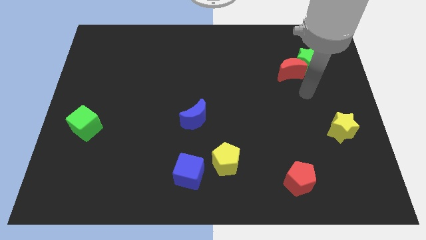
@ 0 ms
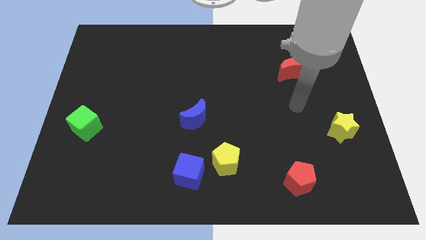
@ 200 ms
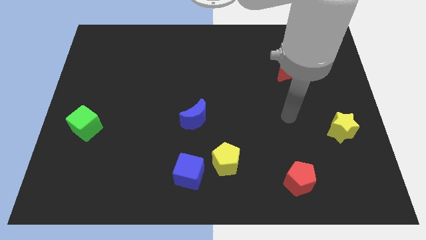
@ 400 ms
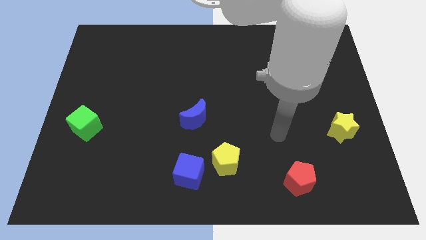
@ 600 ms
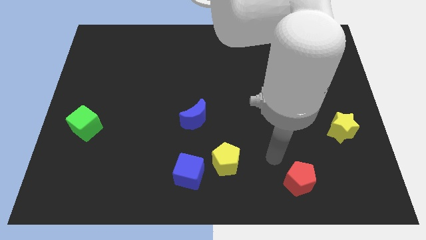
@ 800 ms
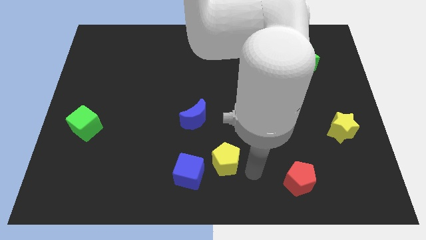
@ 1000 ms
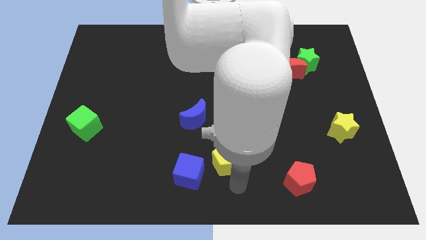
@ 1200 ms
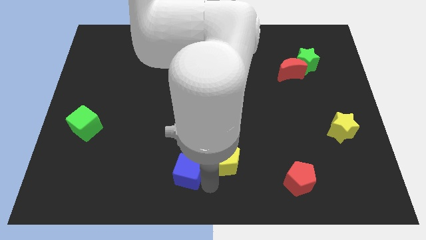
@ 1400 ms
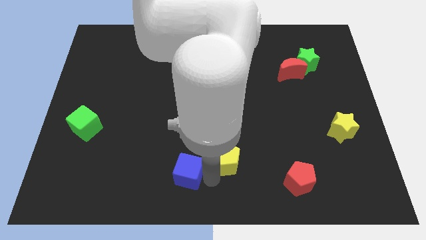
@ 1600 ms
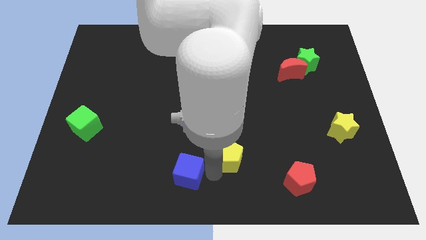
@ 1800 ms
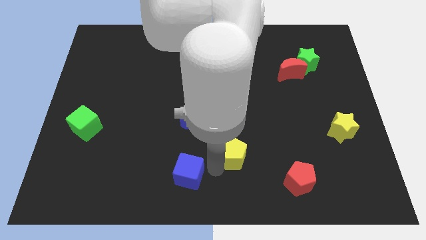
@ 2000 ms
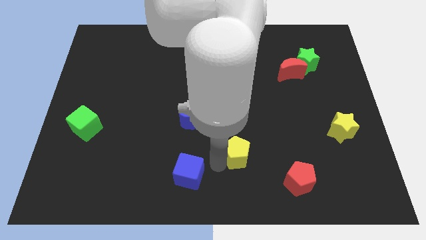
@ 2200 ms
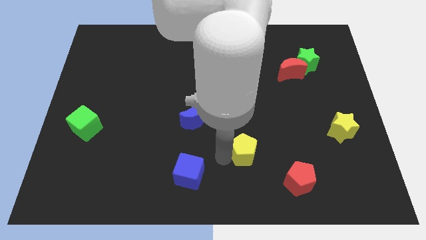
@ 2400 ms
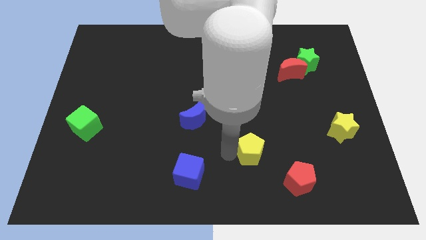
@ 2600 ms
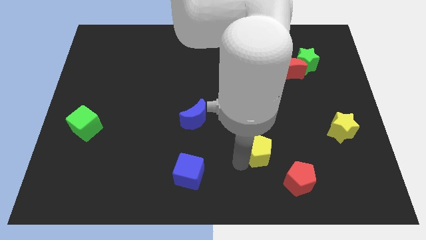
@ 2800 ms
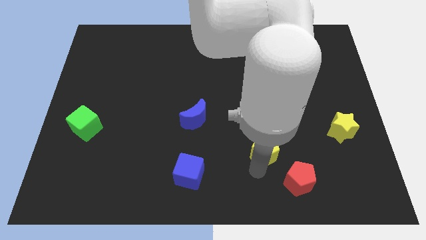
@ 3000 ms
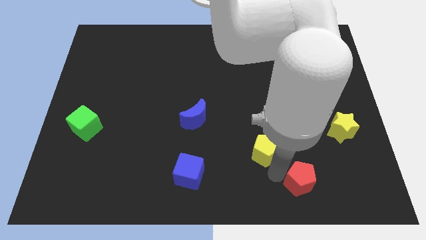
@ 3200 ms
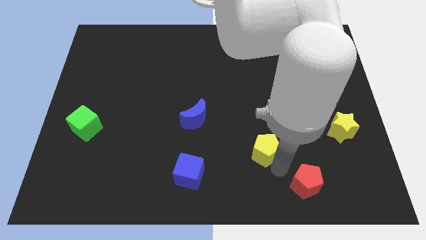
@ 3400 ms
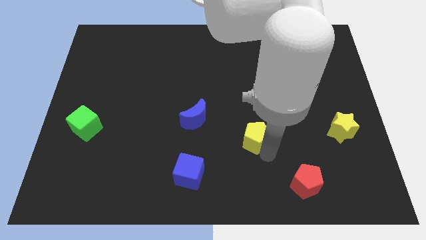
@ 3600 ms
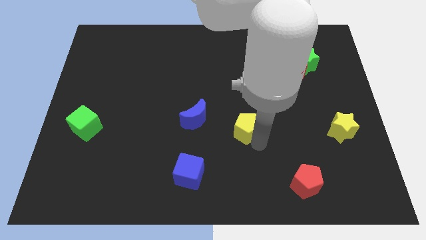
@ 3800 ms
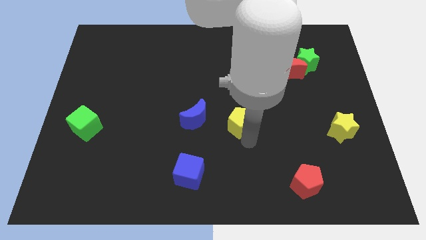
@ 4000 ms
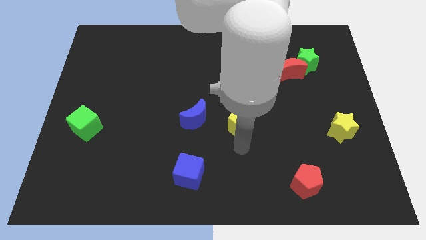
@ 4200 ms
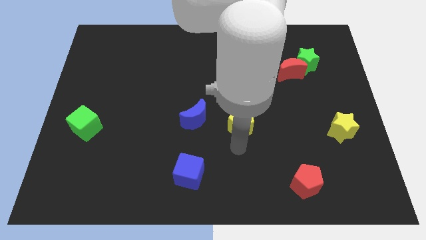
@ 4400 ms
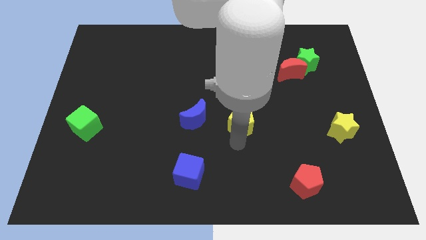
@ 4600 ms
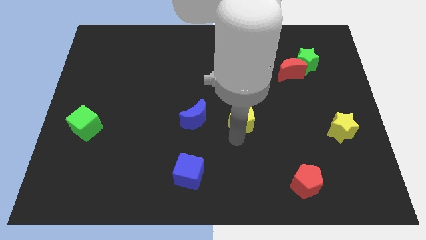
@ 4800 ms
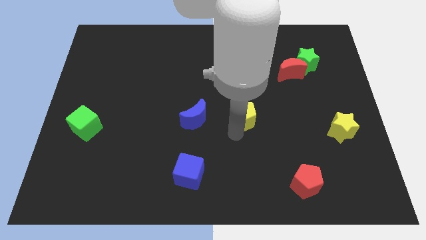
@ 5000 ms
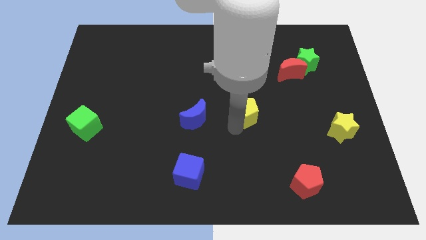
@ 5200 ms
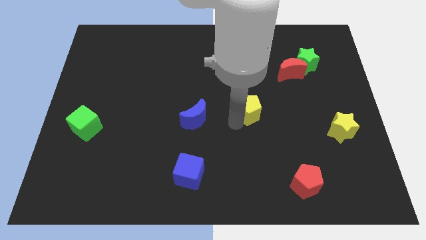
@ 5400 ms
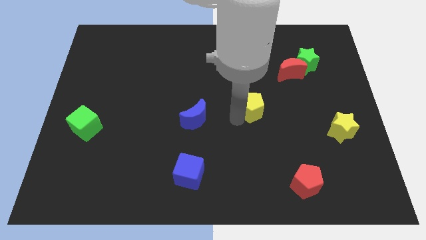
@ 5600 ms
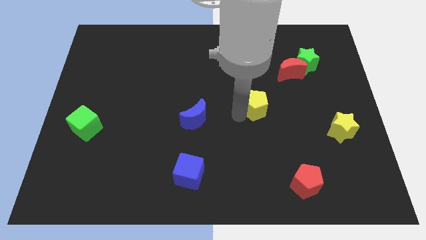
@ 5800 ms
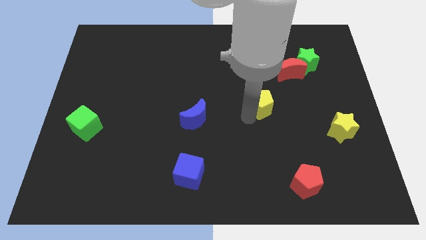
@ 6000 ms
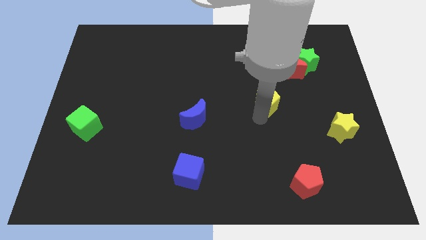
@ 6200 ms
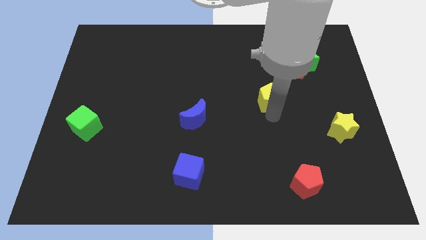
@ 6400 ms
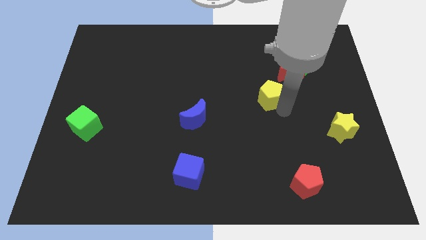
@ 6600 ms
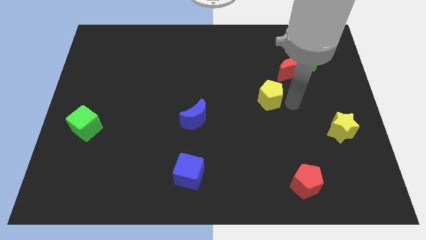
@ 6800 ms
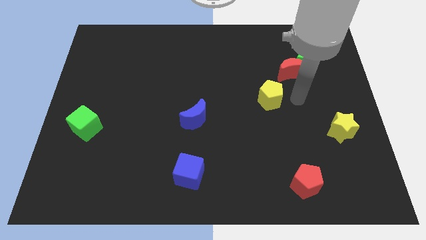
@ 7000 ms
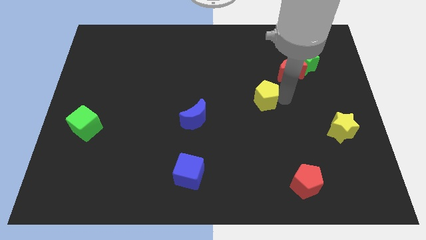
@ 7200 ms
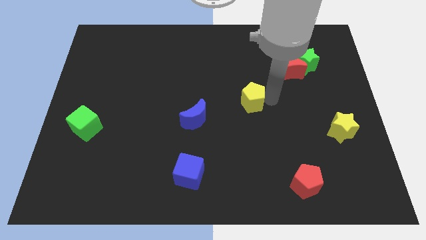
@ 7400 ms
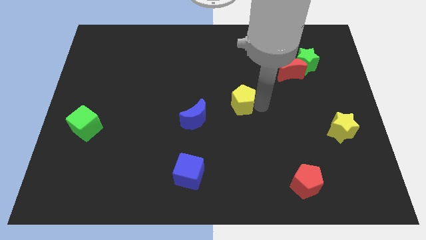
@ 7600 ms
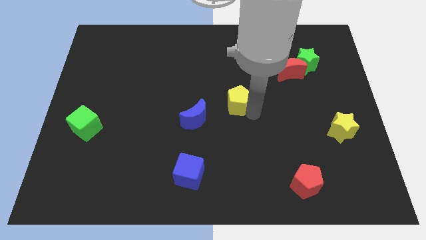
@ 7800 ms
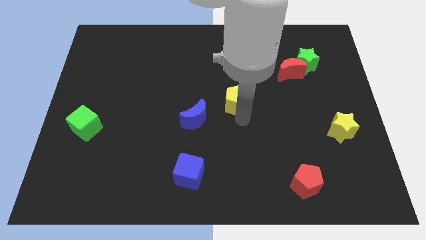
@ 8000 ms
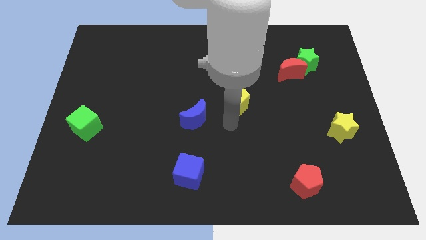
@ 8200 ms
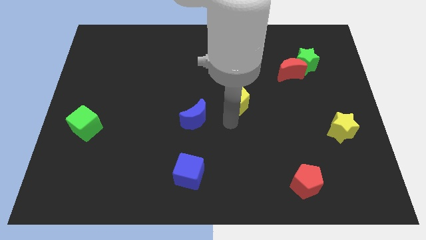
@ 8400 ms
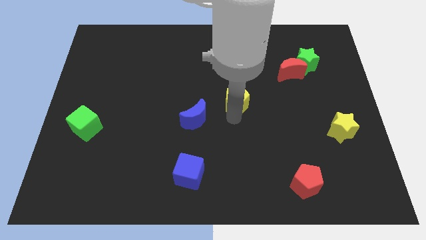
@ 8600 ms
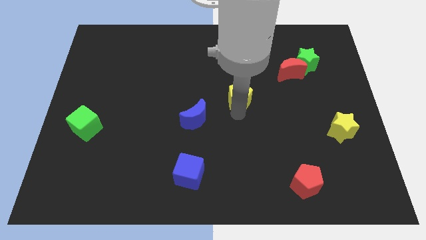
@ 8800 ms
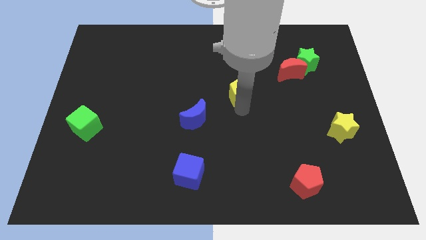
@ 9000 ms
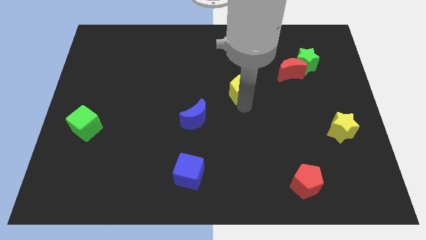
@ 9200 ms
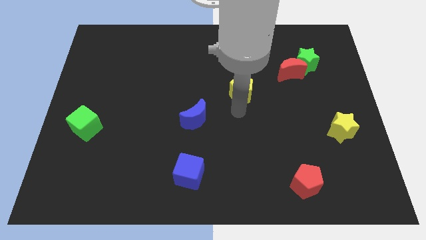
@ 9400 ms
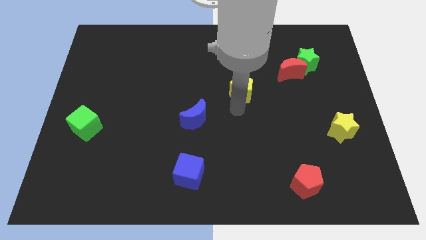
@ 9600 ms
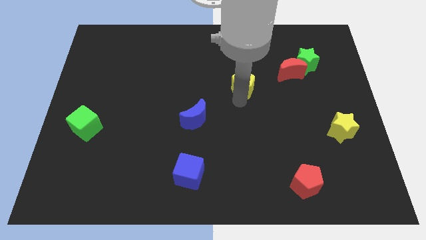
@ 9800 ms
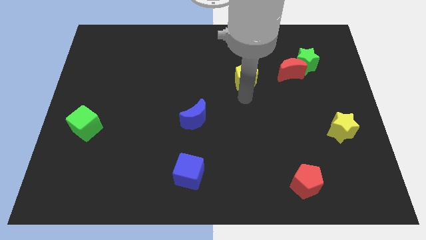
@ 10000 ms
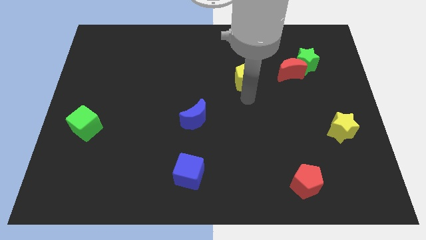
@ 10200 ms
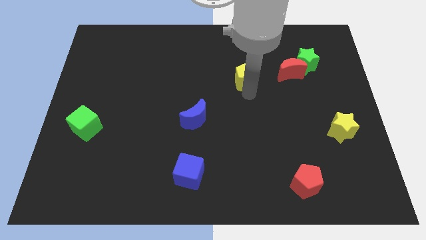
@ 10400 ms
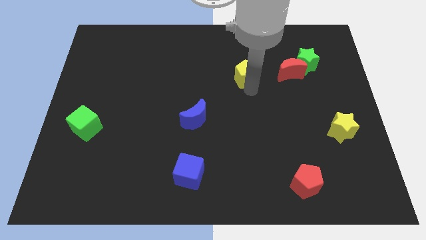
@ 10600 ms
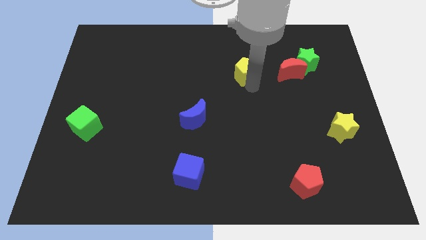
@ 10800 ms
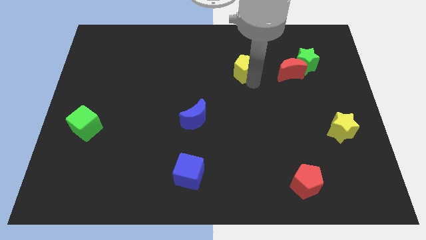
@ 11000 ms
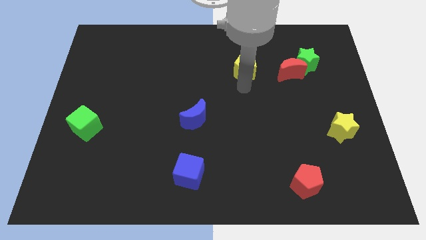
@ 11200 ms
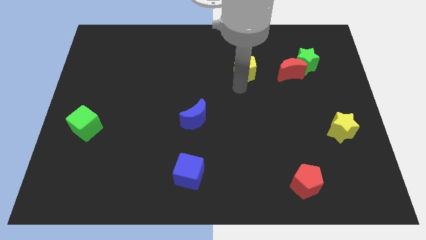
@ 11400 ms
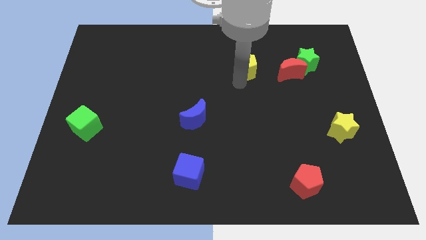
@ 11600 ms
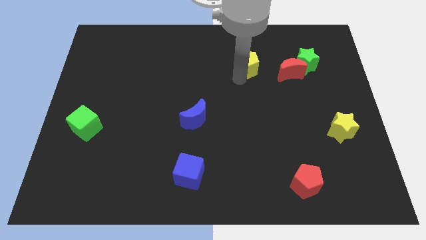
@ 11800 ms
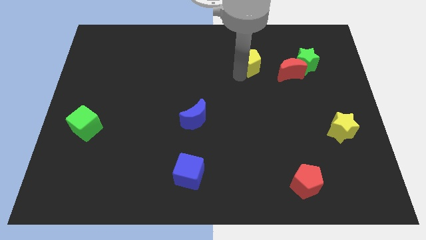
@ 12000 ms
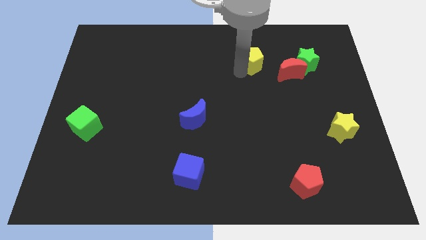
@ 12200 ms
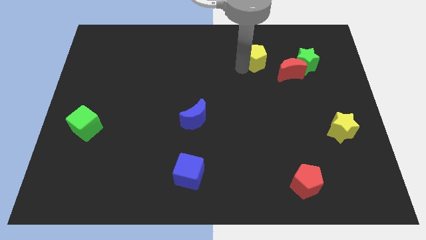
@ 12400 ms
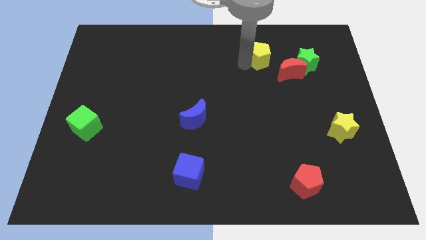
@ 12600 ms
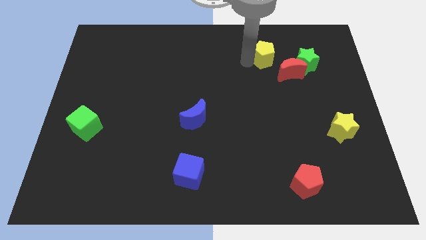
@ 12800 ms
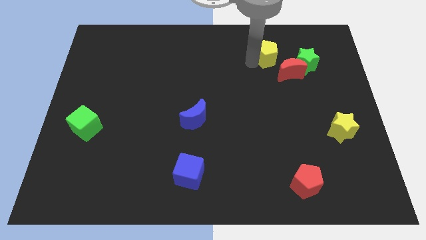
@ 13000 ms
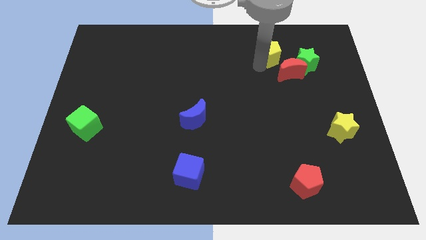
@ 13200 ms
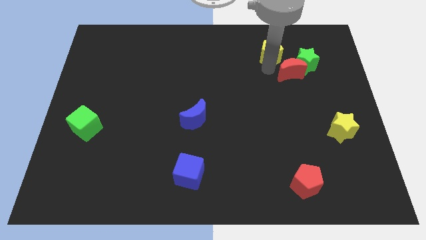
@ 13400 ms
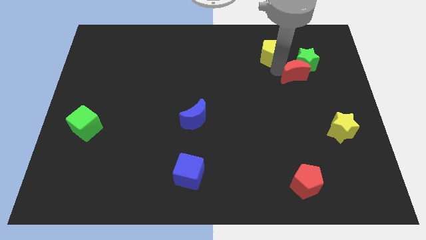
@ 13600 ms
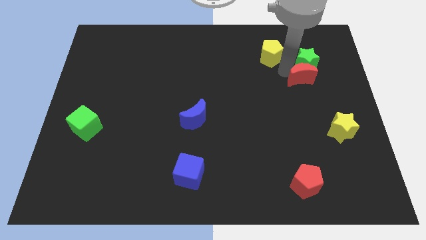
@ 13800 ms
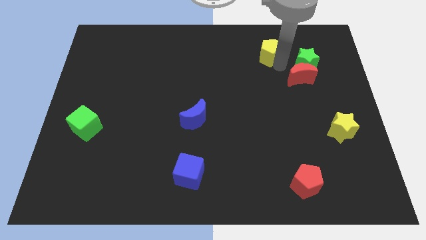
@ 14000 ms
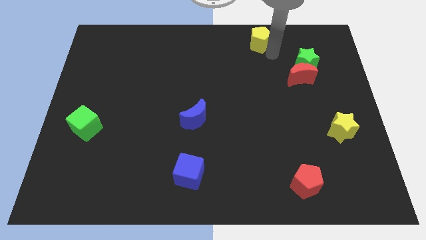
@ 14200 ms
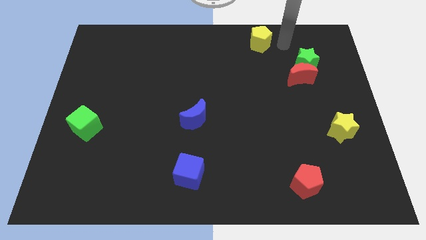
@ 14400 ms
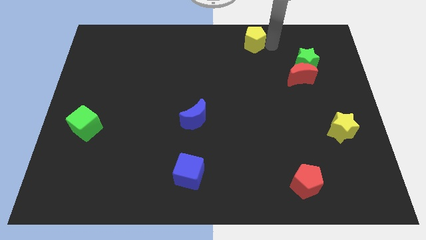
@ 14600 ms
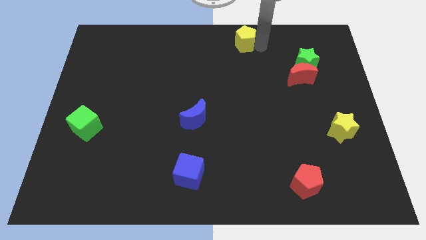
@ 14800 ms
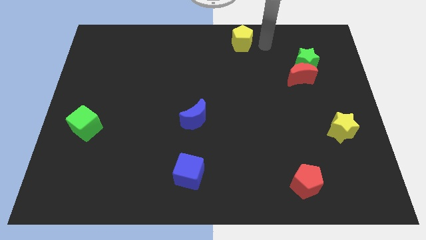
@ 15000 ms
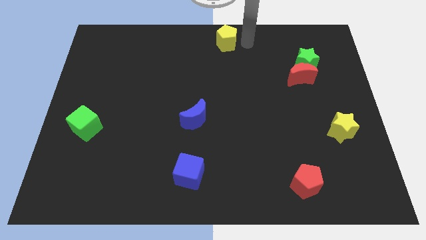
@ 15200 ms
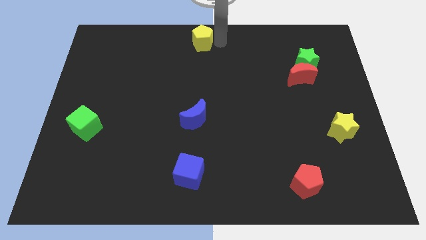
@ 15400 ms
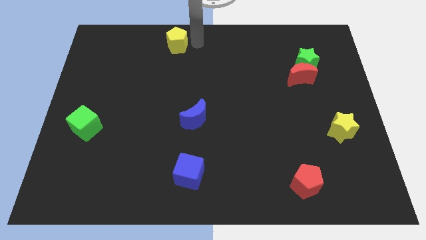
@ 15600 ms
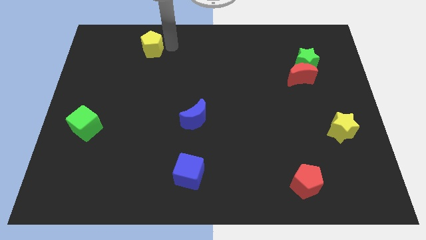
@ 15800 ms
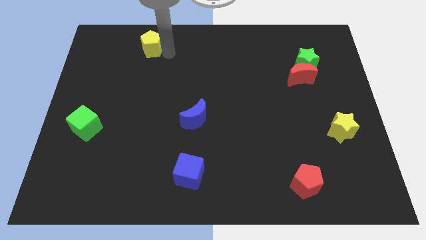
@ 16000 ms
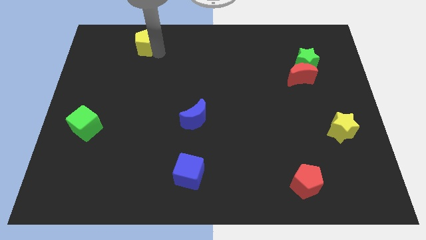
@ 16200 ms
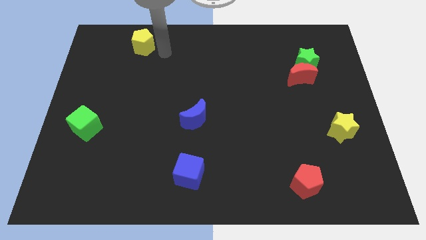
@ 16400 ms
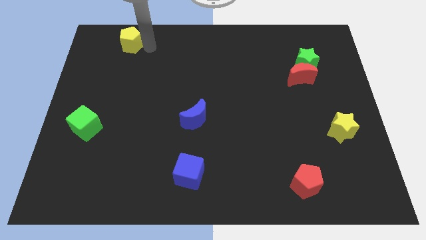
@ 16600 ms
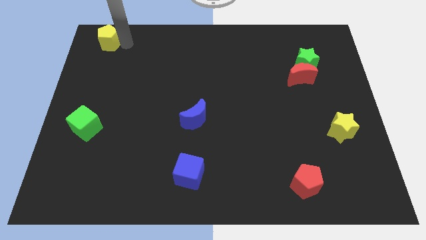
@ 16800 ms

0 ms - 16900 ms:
slide the yellow pentagon to the top left corner
